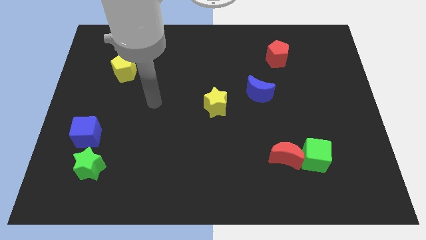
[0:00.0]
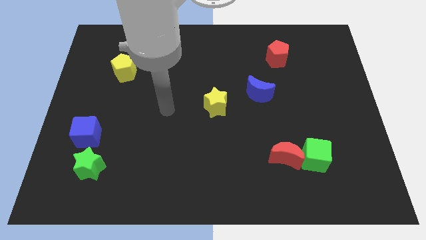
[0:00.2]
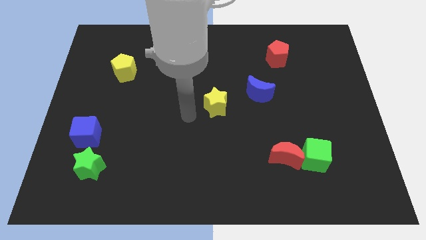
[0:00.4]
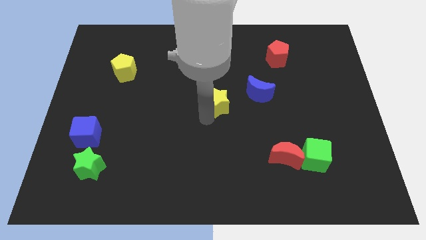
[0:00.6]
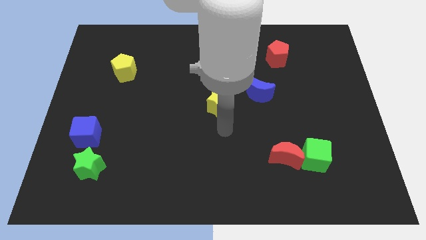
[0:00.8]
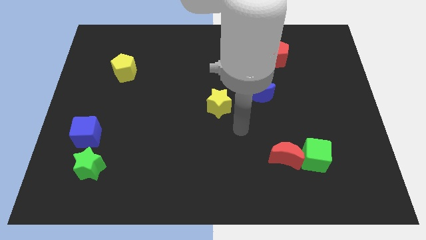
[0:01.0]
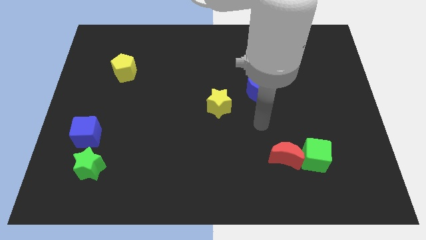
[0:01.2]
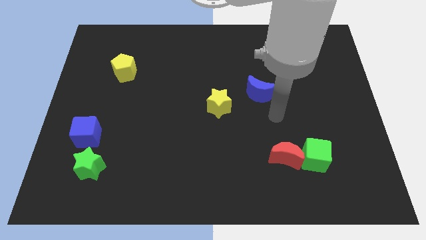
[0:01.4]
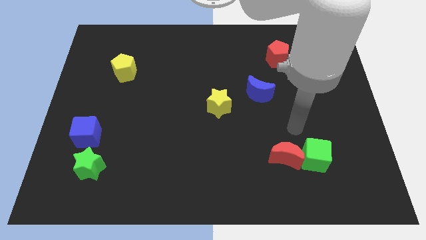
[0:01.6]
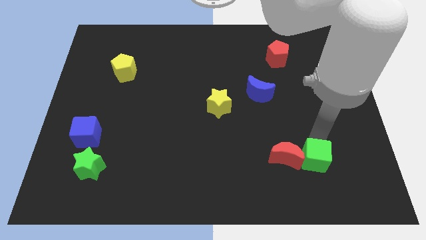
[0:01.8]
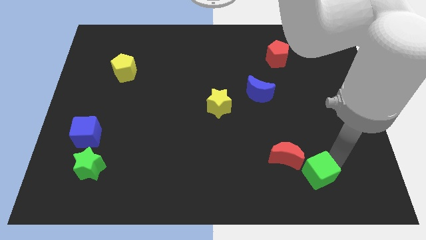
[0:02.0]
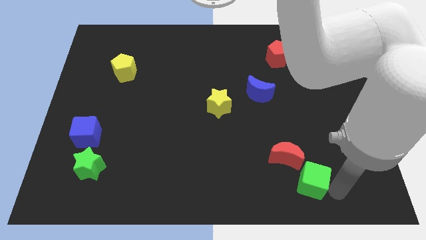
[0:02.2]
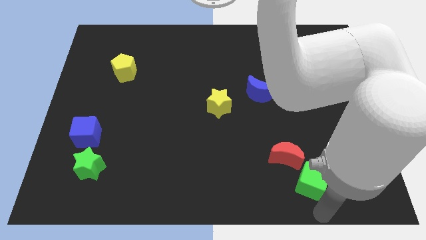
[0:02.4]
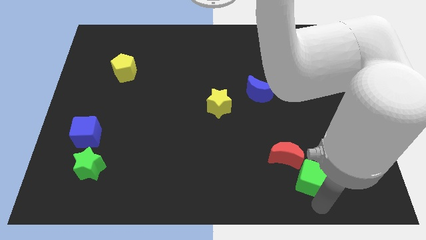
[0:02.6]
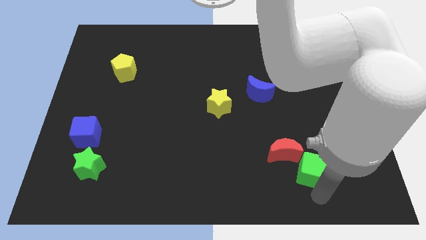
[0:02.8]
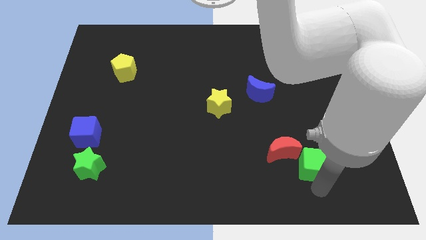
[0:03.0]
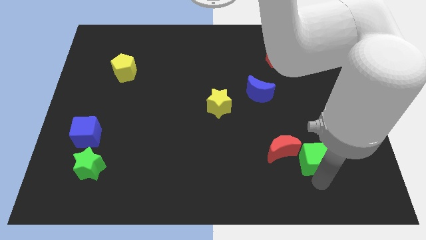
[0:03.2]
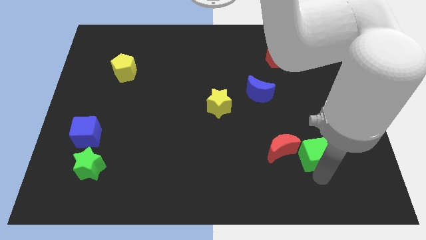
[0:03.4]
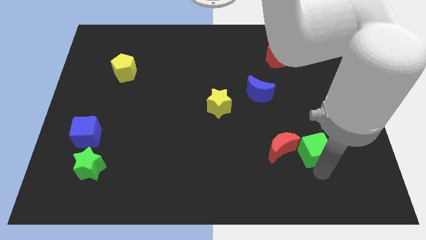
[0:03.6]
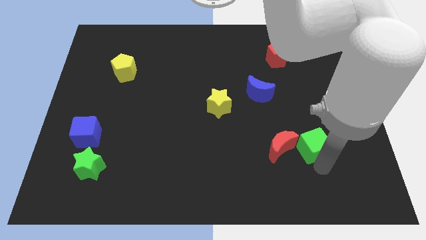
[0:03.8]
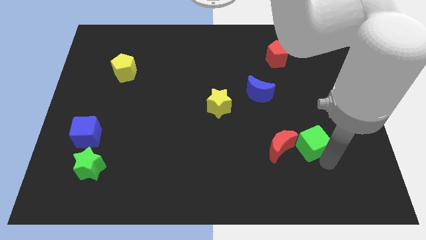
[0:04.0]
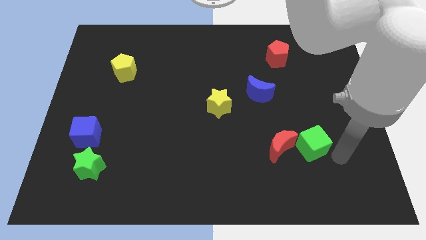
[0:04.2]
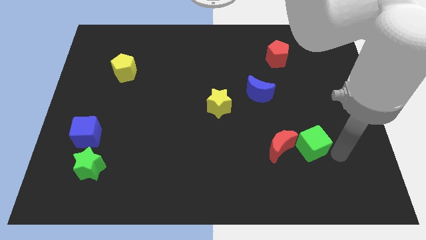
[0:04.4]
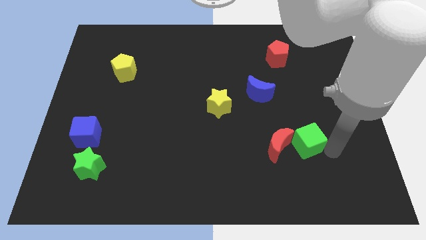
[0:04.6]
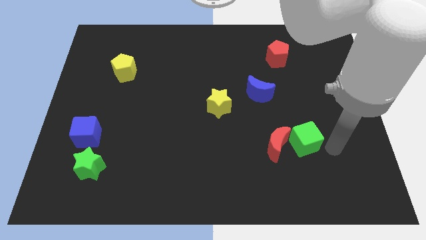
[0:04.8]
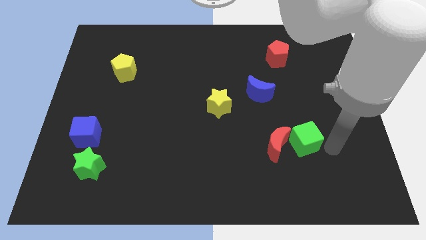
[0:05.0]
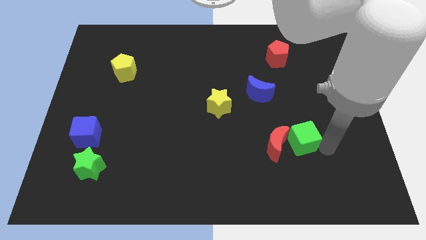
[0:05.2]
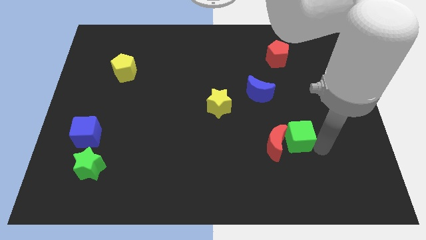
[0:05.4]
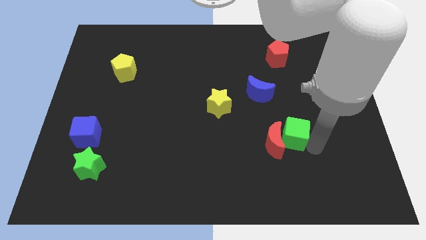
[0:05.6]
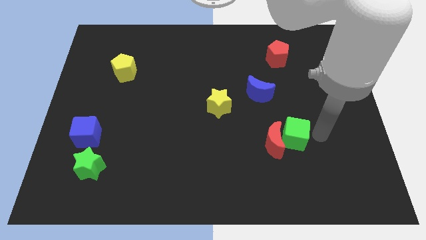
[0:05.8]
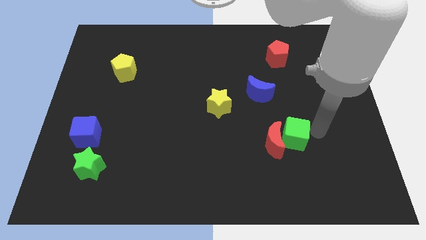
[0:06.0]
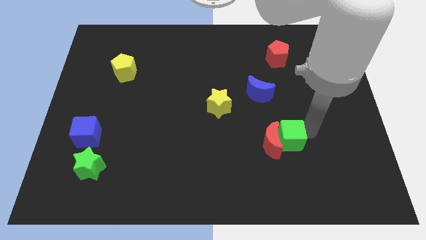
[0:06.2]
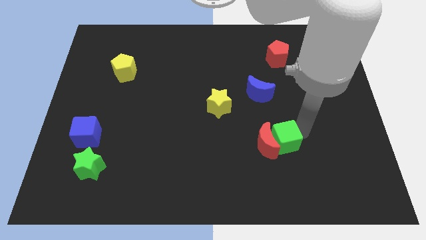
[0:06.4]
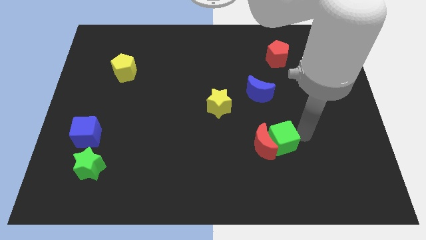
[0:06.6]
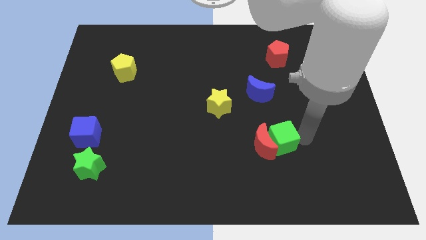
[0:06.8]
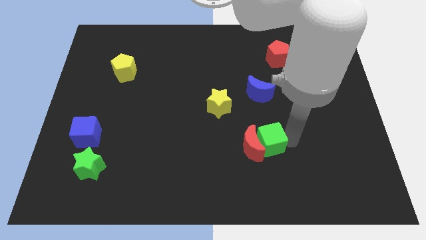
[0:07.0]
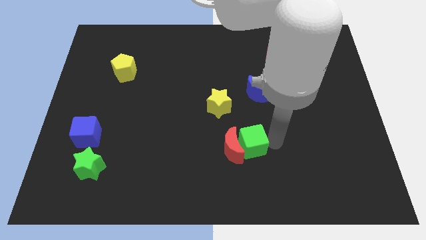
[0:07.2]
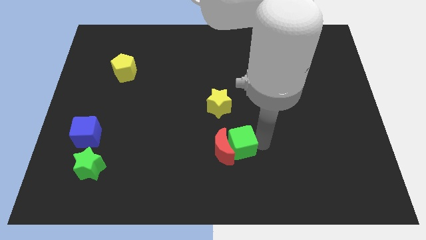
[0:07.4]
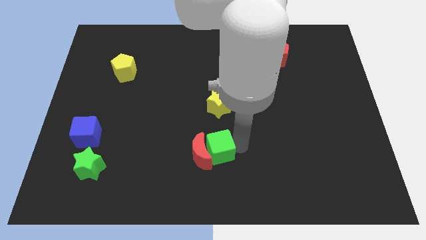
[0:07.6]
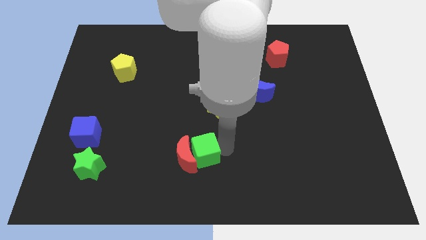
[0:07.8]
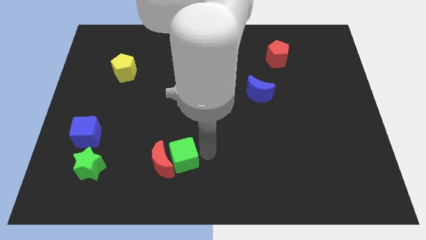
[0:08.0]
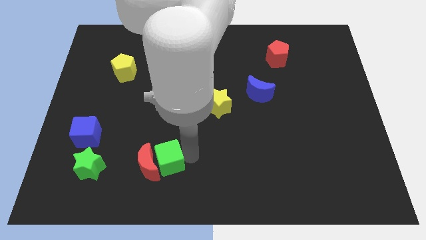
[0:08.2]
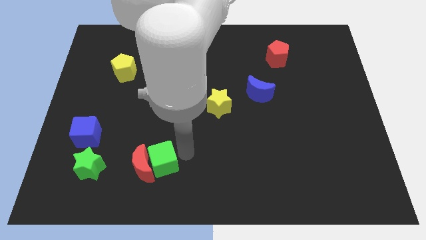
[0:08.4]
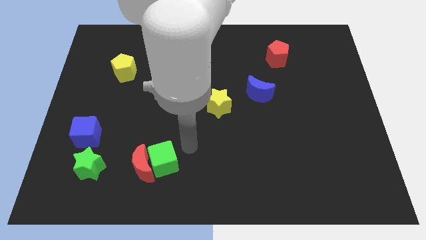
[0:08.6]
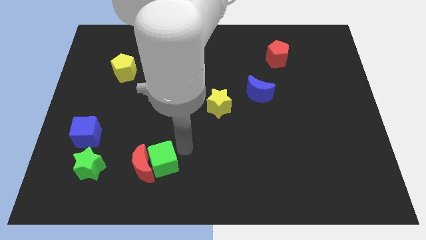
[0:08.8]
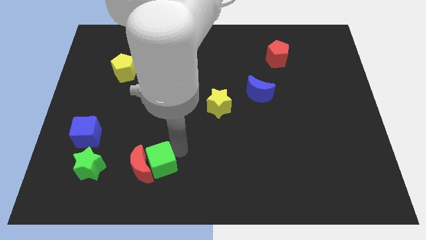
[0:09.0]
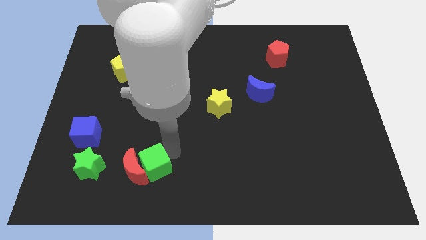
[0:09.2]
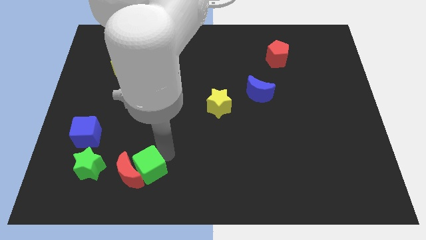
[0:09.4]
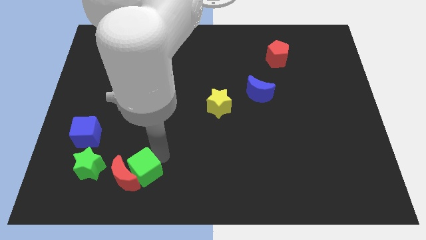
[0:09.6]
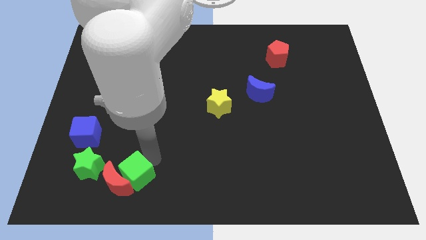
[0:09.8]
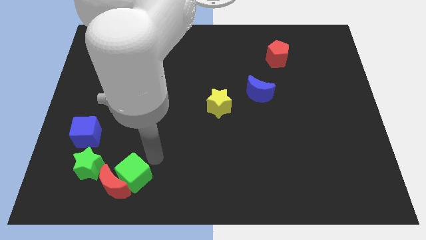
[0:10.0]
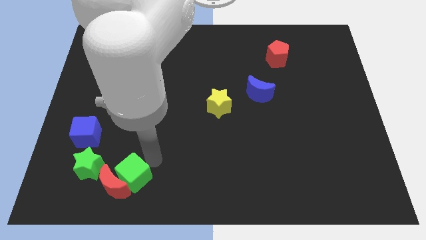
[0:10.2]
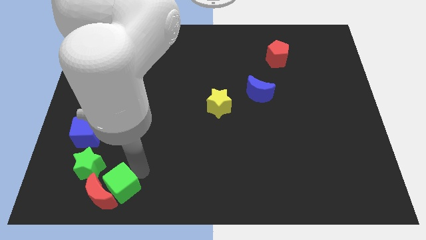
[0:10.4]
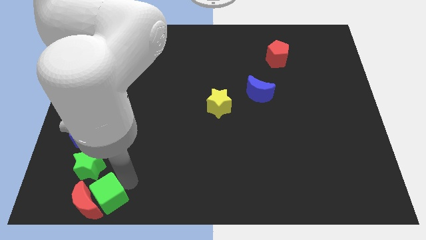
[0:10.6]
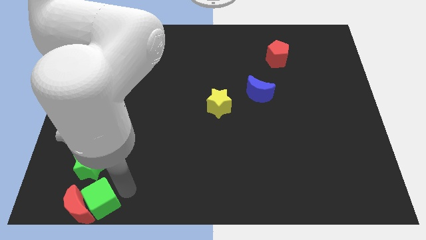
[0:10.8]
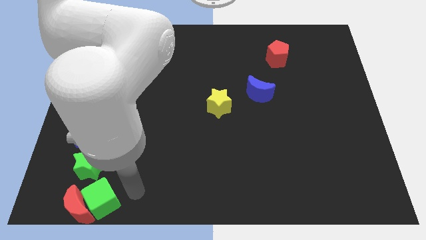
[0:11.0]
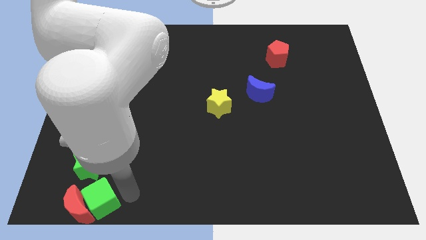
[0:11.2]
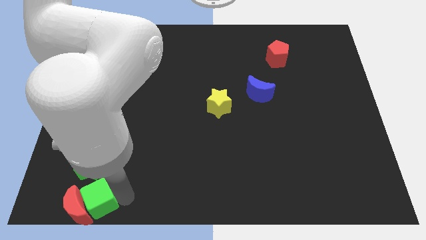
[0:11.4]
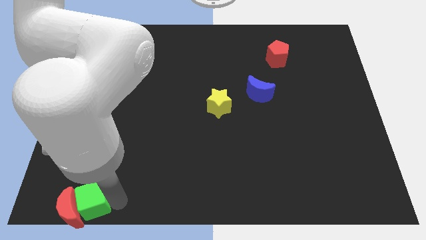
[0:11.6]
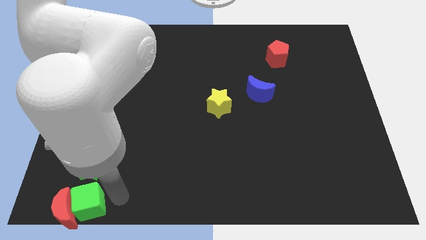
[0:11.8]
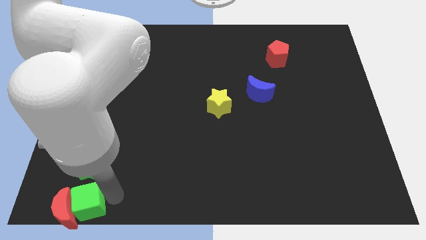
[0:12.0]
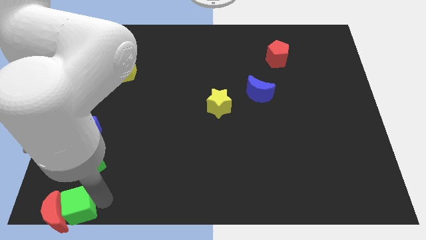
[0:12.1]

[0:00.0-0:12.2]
put the green cube to the bottom left corner

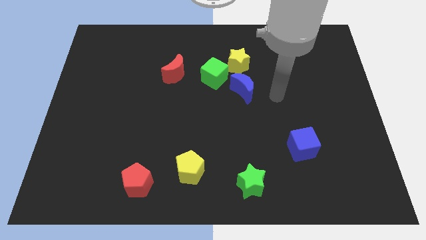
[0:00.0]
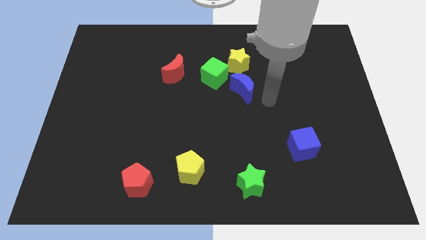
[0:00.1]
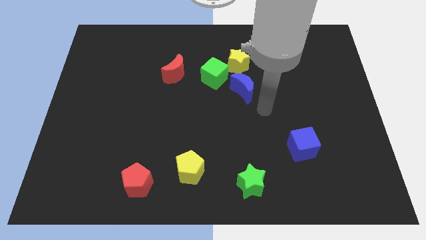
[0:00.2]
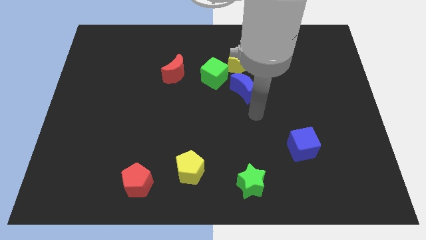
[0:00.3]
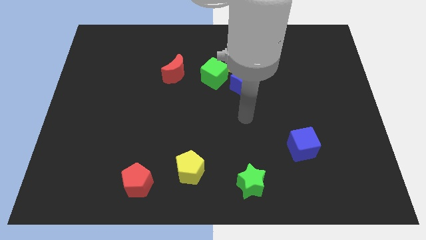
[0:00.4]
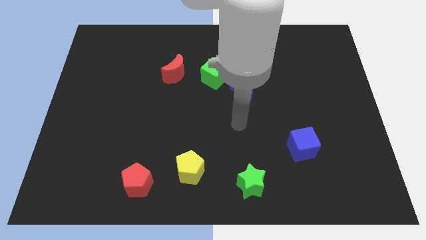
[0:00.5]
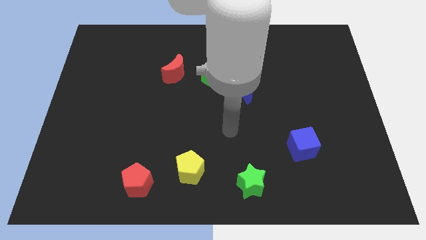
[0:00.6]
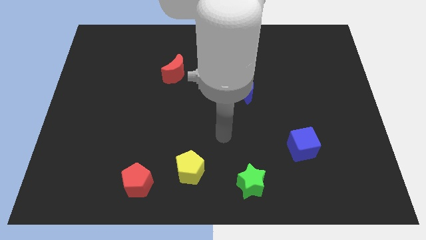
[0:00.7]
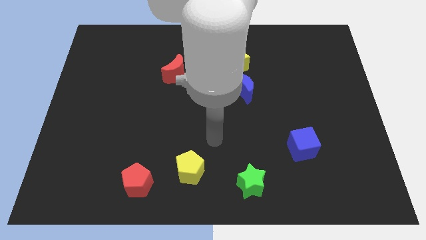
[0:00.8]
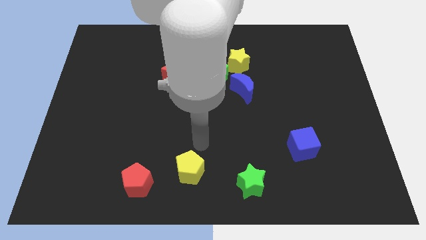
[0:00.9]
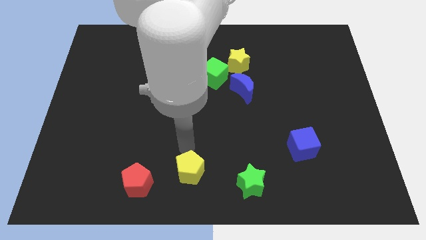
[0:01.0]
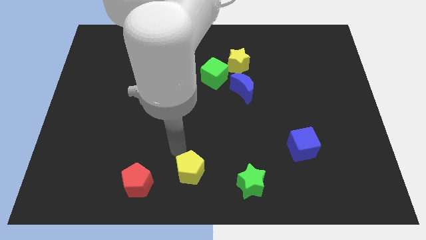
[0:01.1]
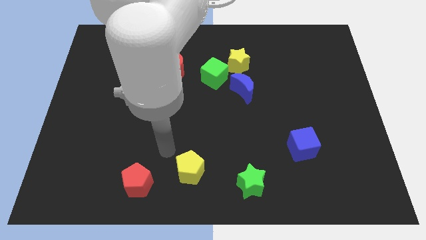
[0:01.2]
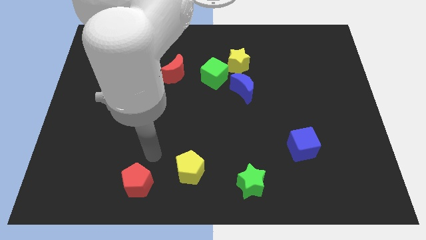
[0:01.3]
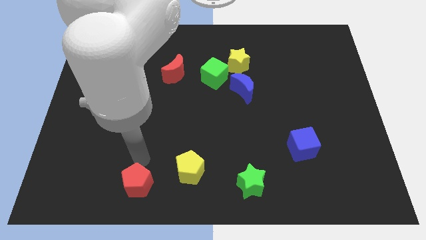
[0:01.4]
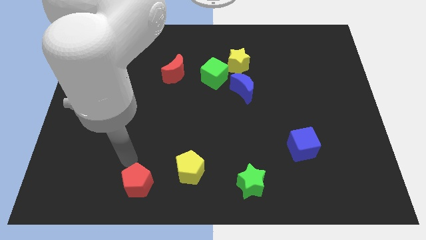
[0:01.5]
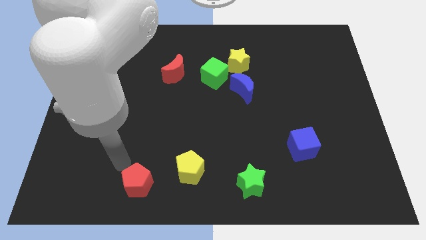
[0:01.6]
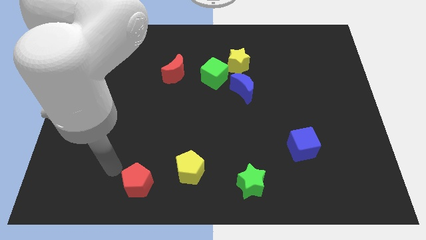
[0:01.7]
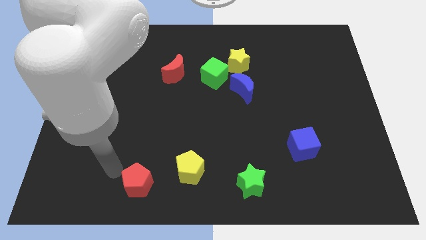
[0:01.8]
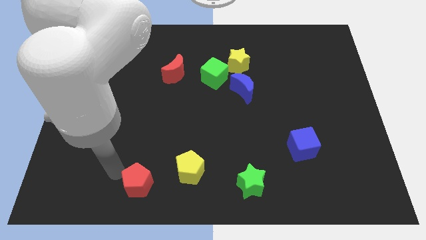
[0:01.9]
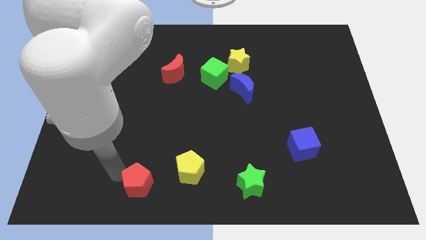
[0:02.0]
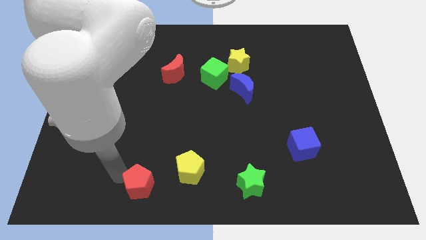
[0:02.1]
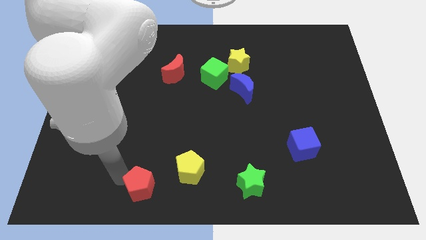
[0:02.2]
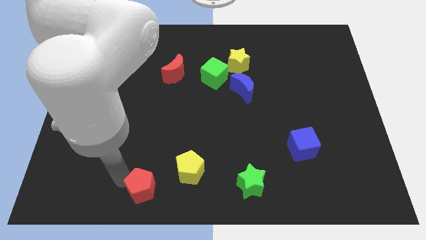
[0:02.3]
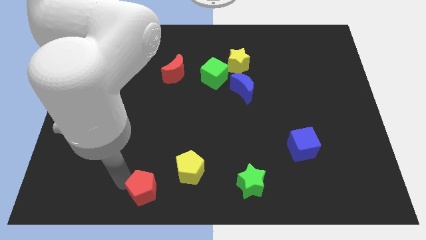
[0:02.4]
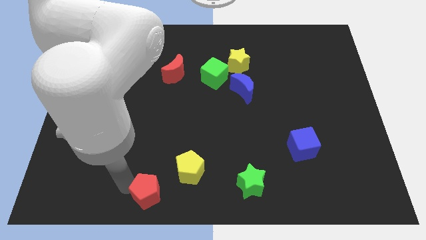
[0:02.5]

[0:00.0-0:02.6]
put the red pentagon to the bottom
